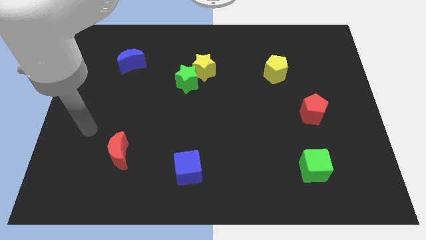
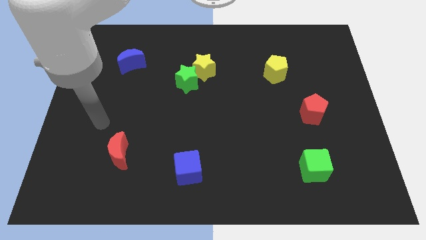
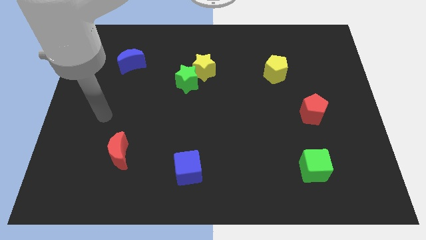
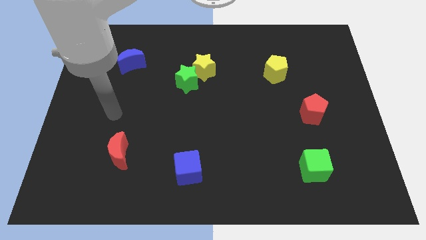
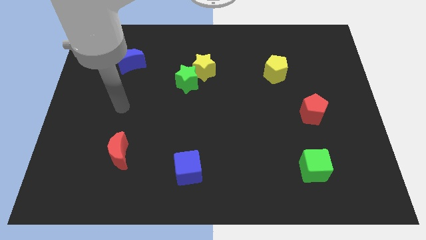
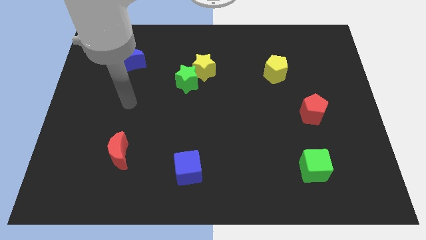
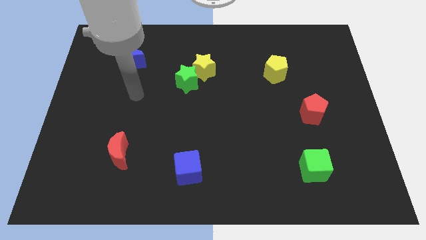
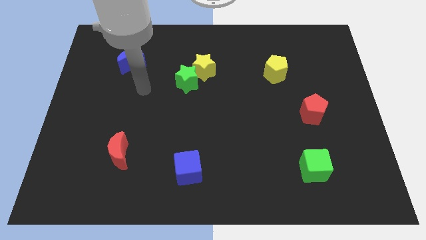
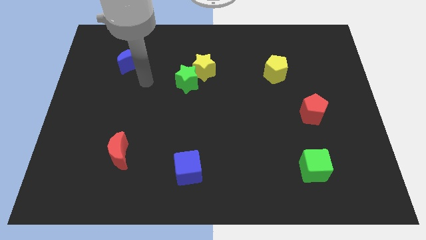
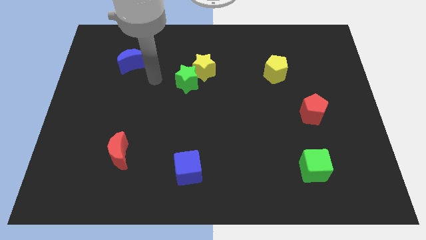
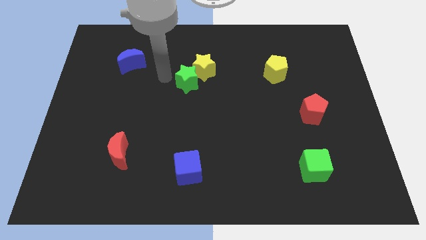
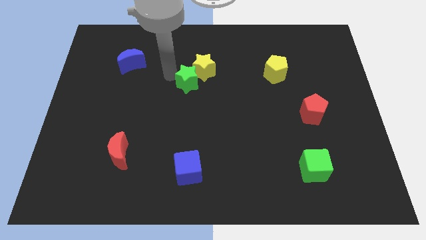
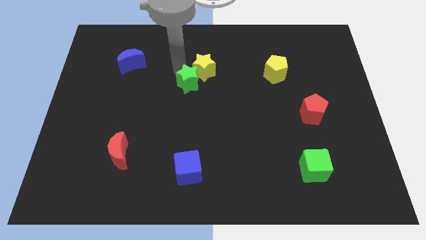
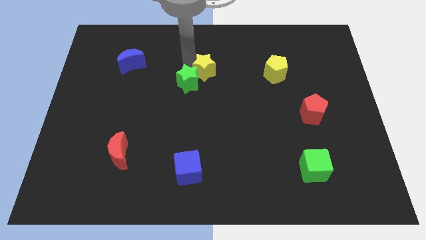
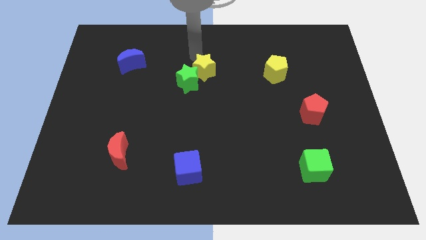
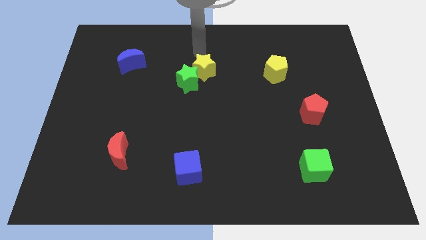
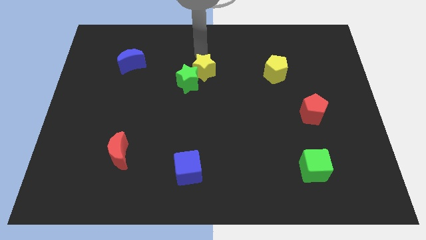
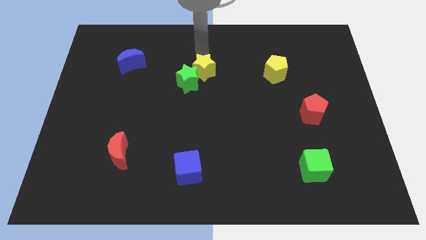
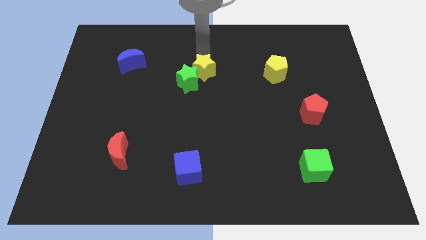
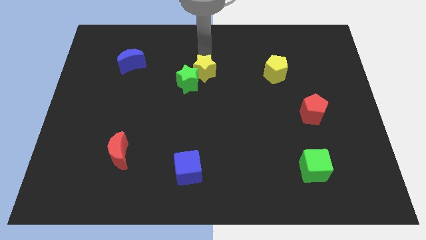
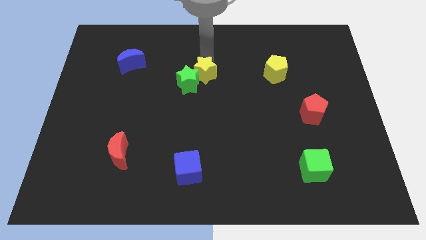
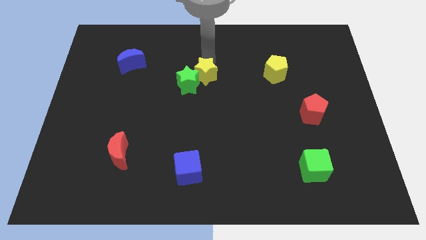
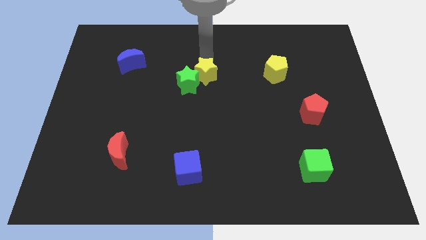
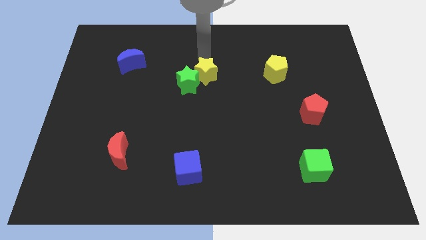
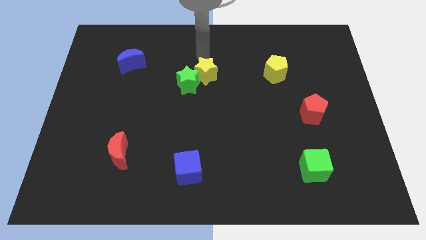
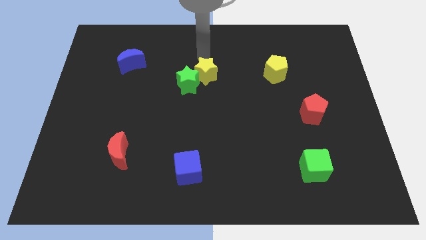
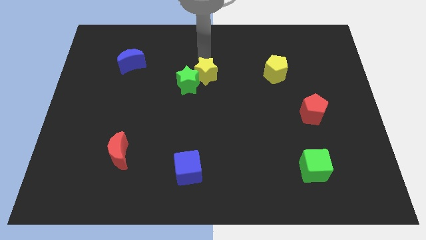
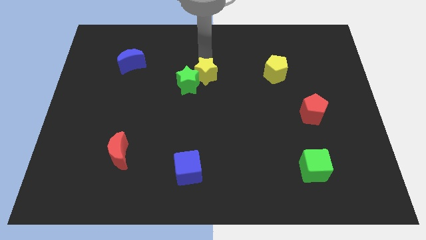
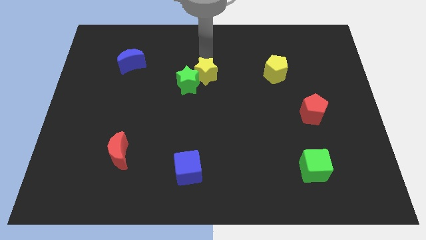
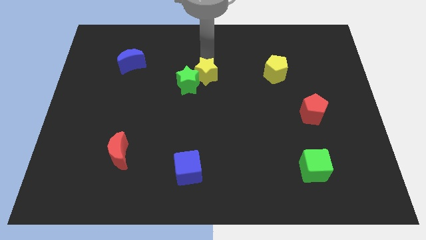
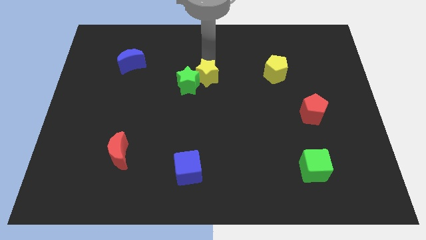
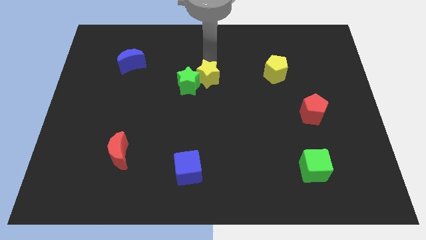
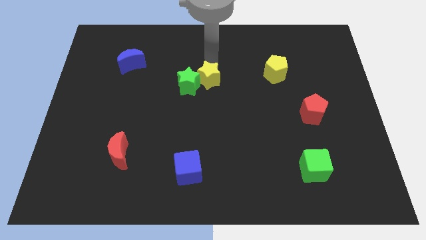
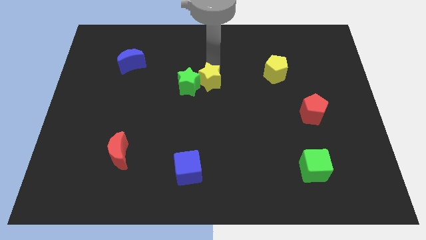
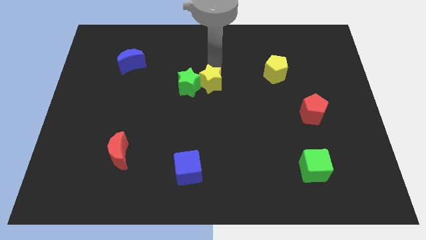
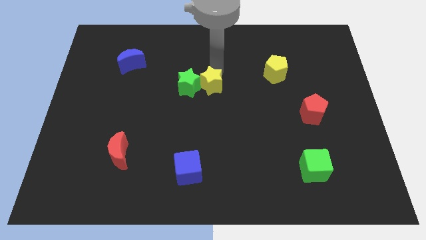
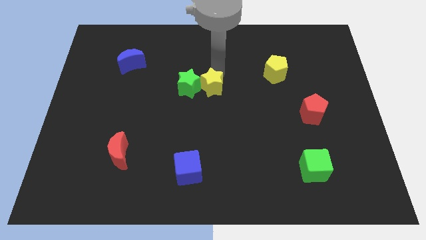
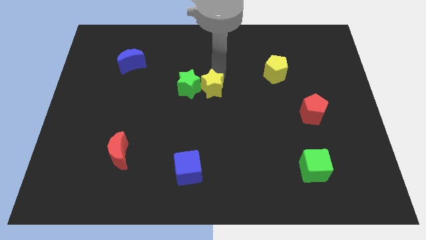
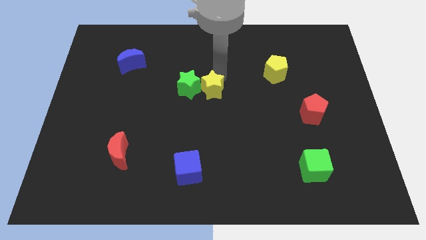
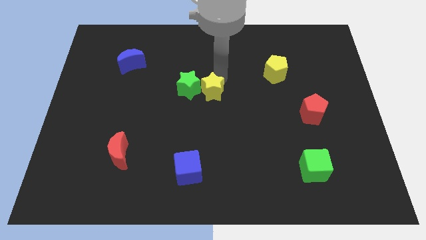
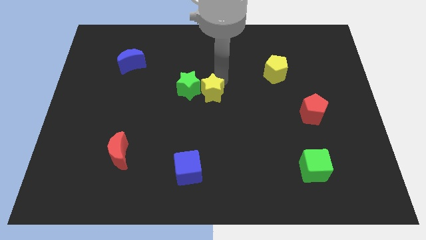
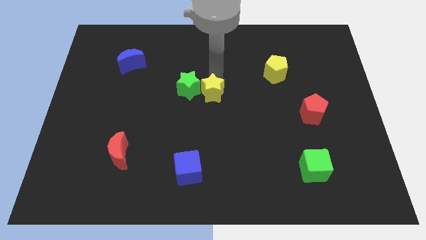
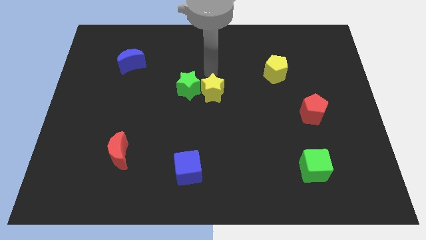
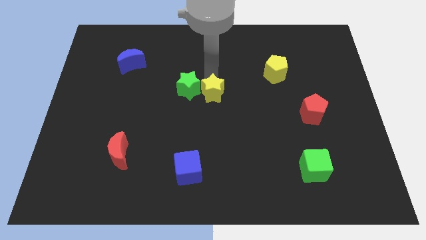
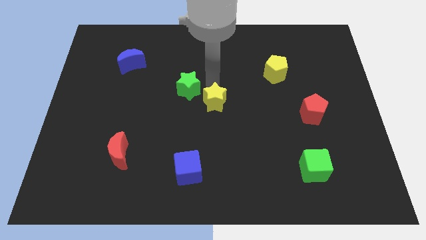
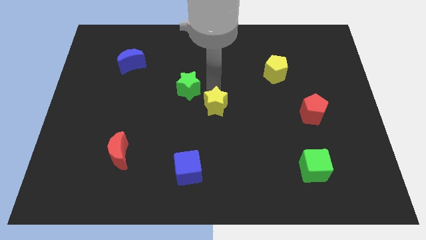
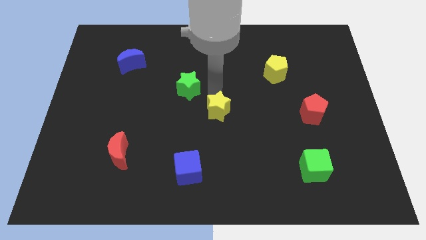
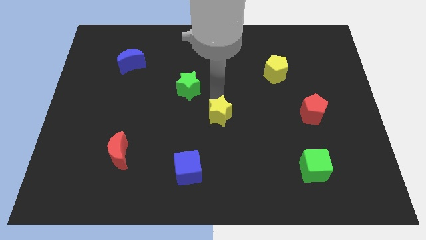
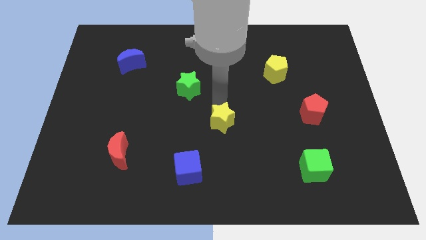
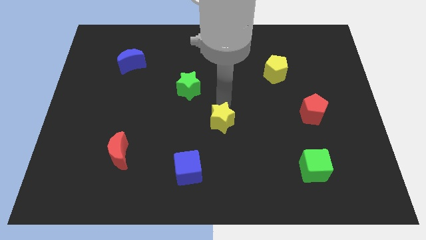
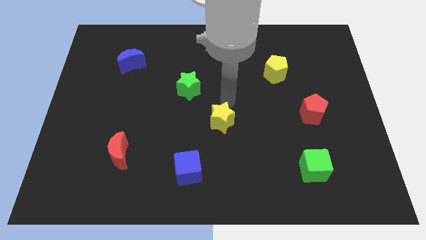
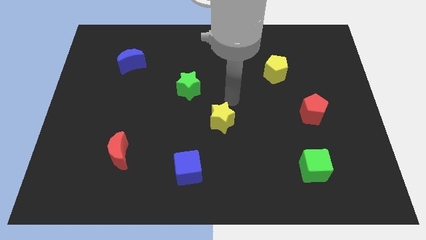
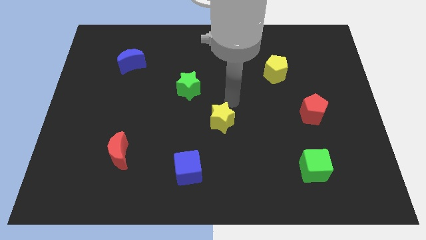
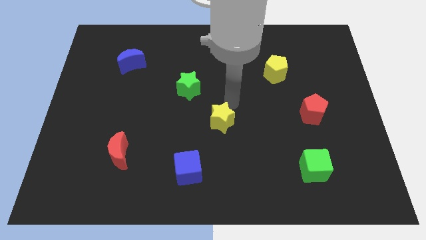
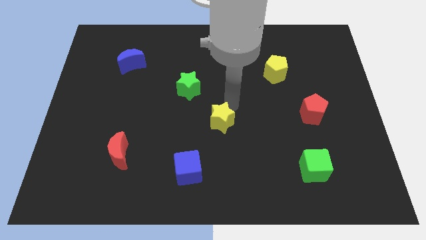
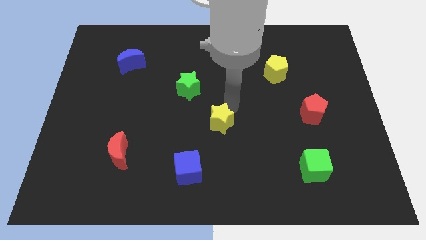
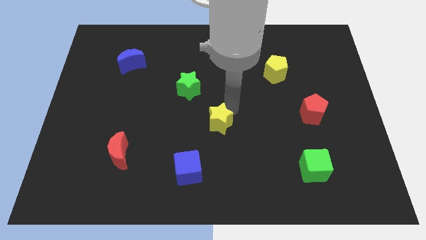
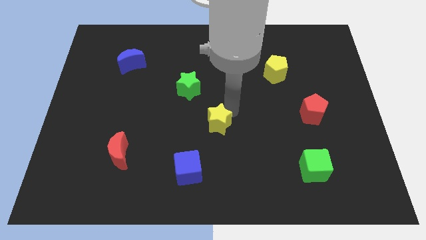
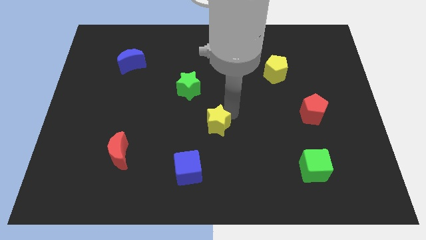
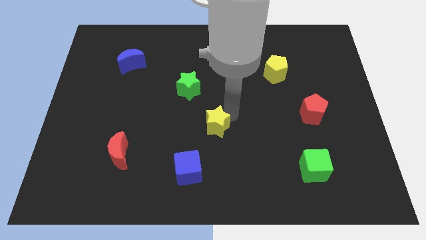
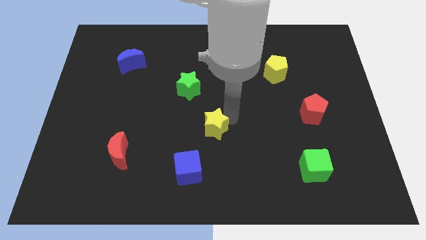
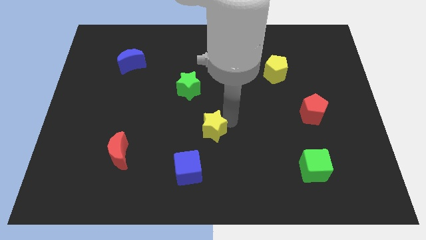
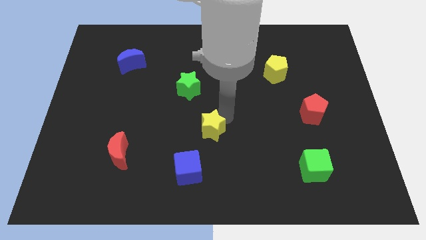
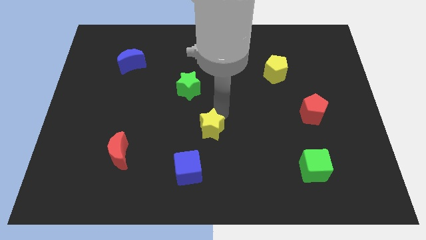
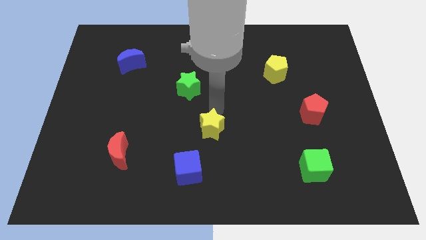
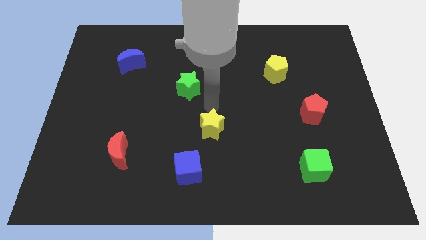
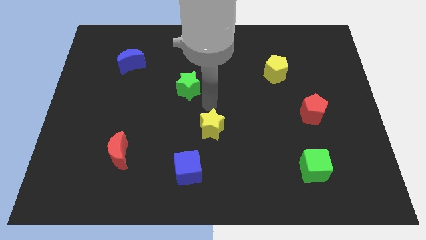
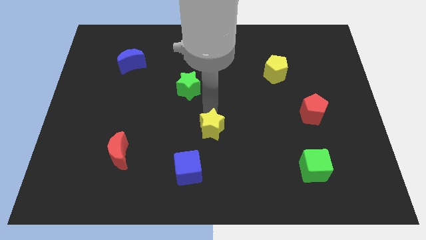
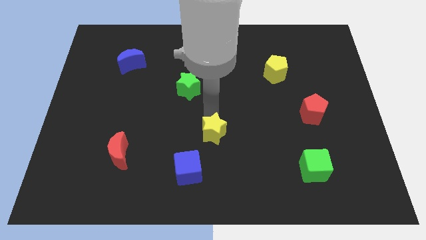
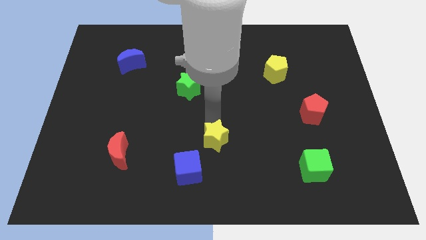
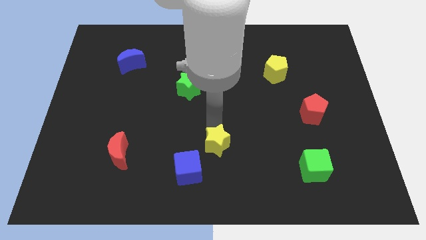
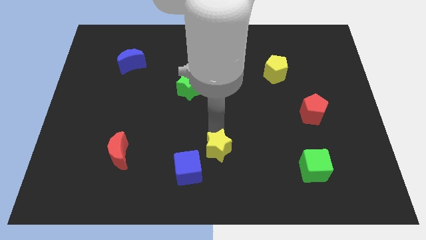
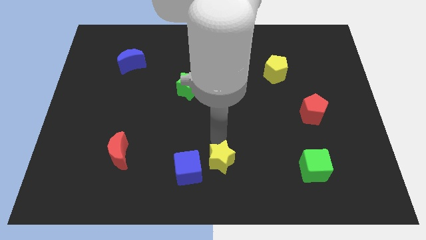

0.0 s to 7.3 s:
slide the yellow star to the bottom
